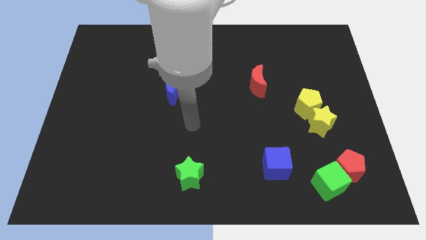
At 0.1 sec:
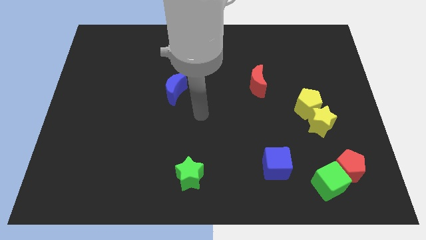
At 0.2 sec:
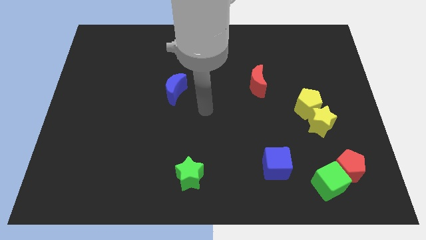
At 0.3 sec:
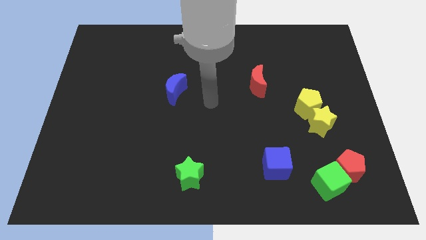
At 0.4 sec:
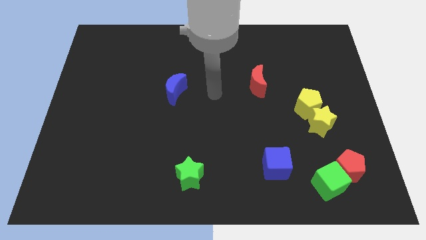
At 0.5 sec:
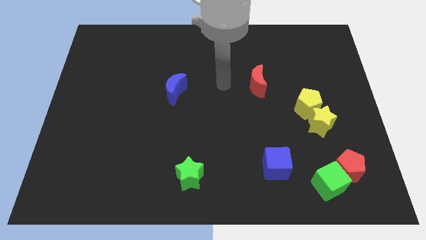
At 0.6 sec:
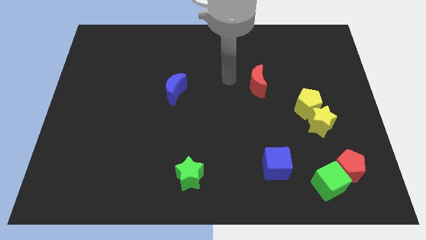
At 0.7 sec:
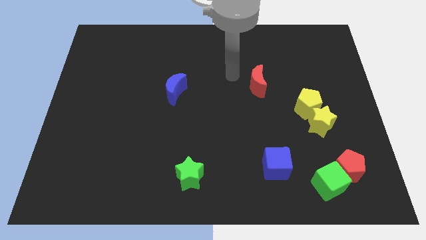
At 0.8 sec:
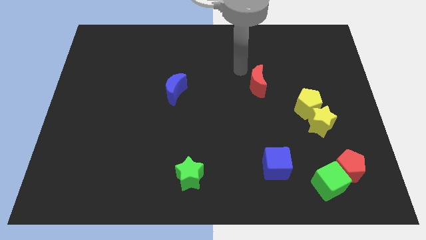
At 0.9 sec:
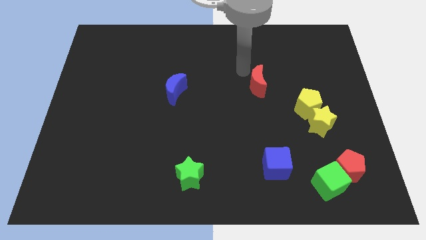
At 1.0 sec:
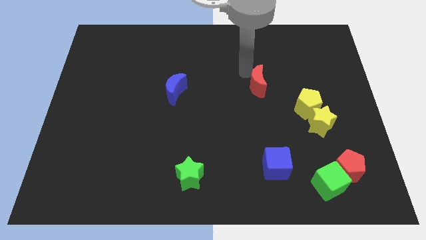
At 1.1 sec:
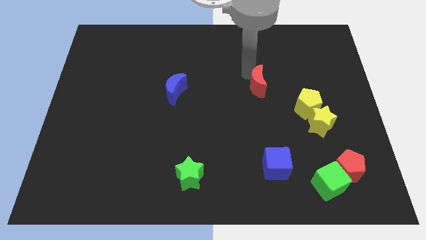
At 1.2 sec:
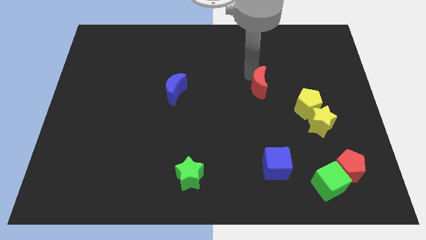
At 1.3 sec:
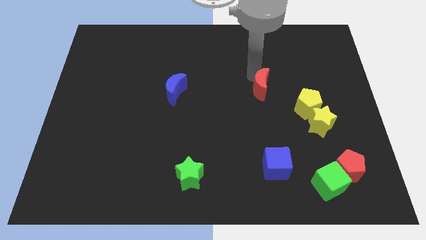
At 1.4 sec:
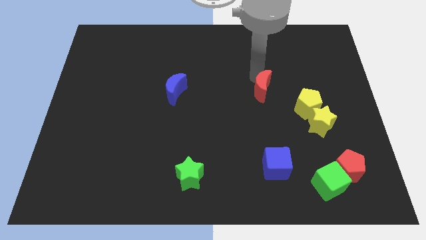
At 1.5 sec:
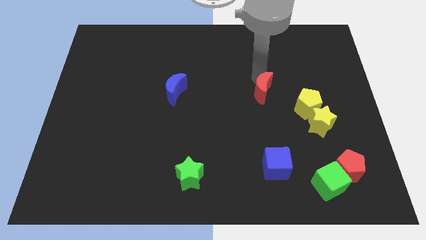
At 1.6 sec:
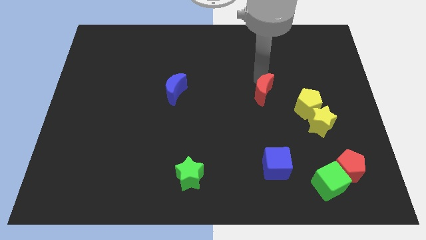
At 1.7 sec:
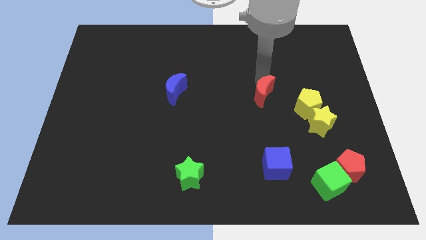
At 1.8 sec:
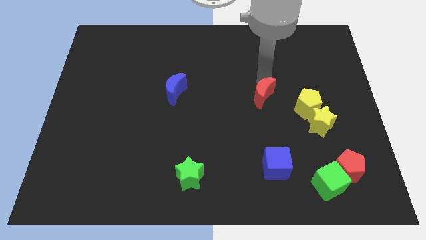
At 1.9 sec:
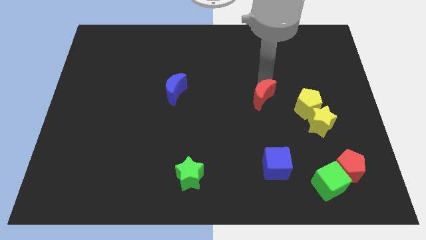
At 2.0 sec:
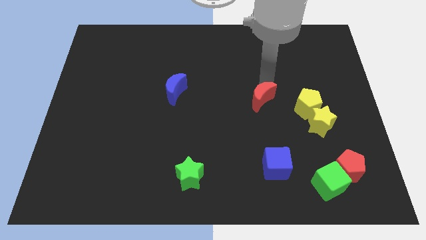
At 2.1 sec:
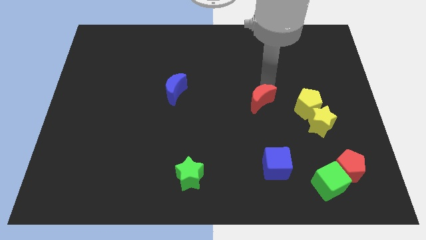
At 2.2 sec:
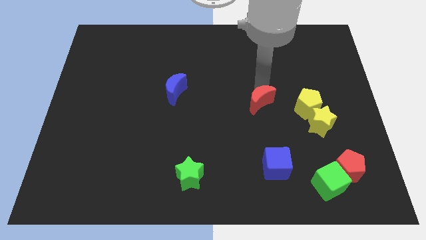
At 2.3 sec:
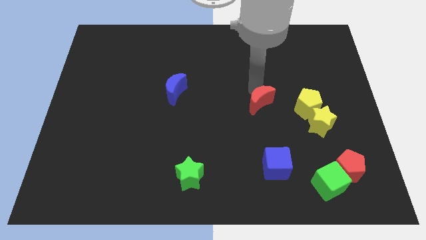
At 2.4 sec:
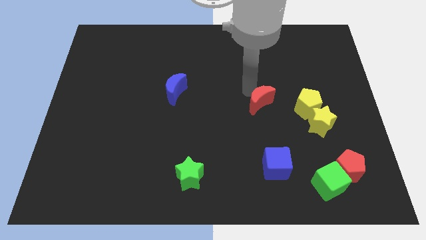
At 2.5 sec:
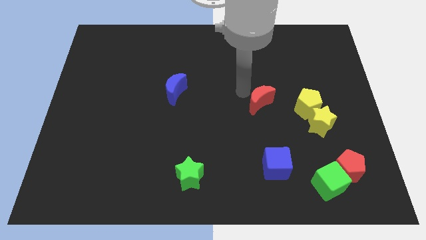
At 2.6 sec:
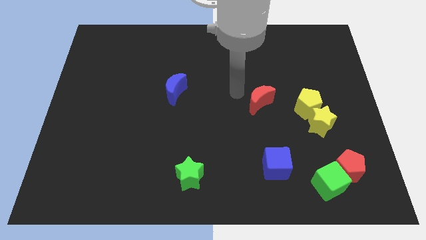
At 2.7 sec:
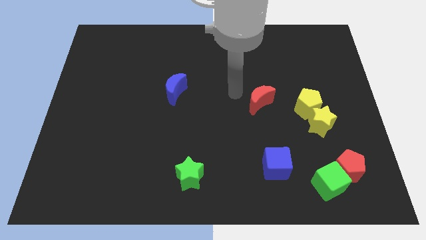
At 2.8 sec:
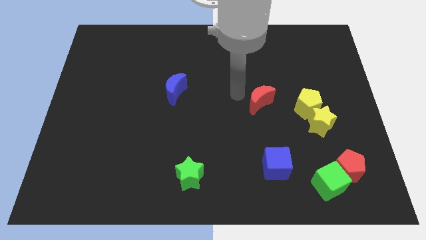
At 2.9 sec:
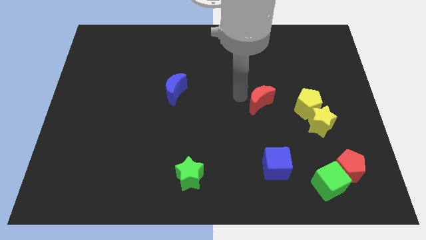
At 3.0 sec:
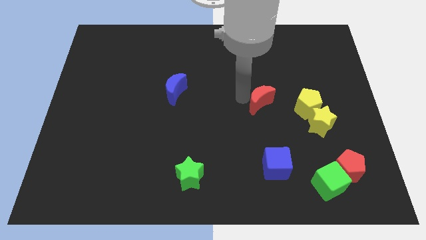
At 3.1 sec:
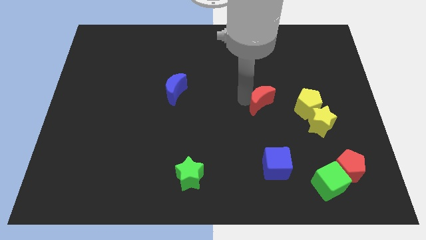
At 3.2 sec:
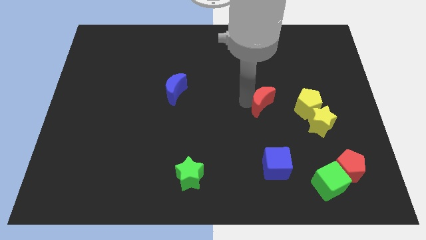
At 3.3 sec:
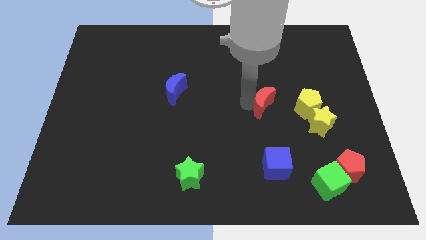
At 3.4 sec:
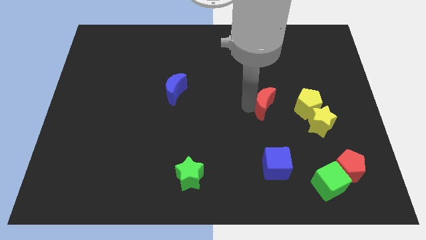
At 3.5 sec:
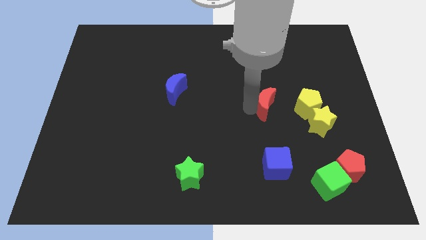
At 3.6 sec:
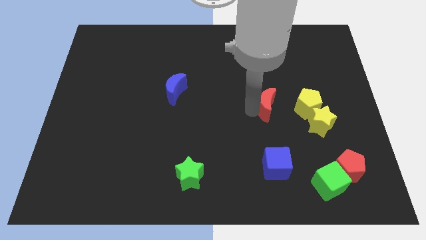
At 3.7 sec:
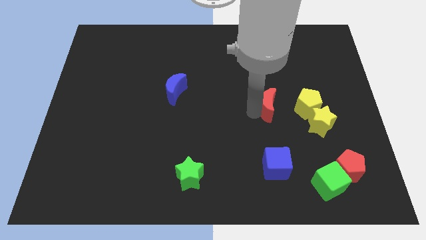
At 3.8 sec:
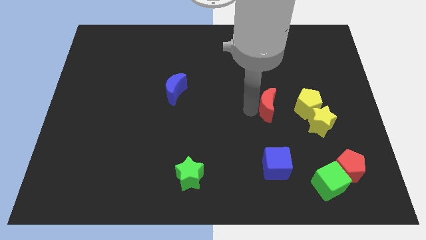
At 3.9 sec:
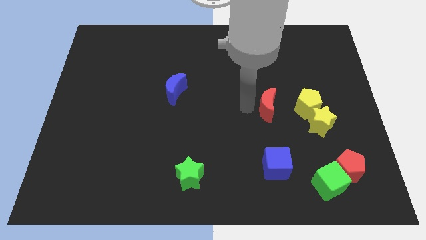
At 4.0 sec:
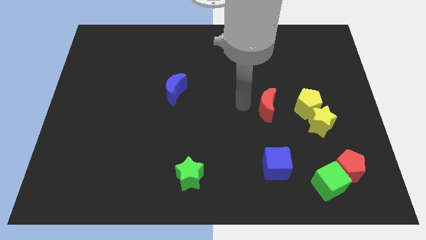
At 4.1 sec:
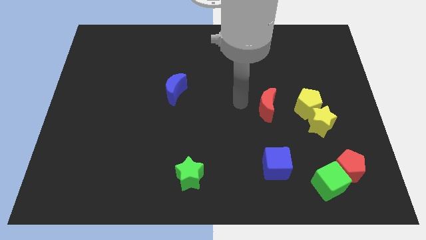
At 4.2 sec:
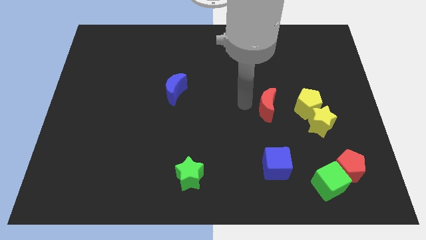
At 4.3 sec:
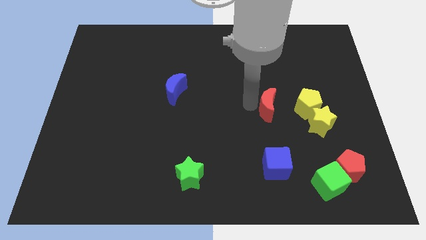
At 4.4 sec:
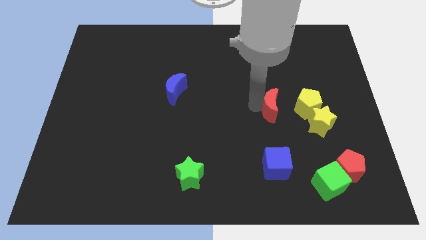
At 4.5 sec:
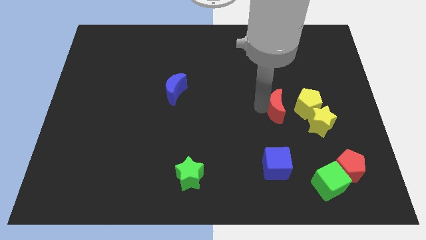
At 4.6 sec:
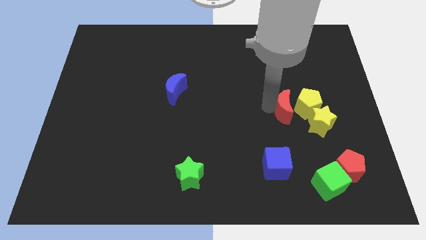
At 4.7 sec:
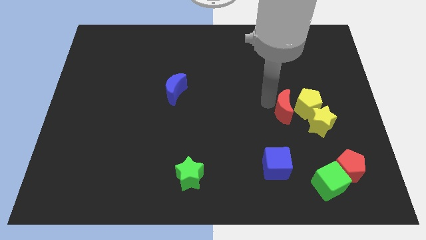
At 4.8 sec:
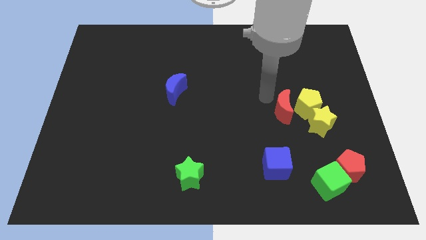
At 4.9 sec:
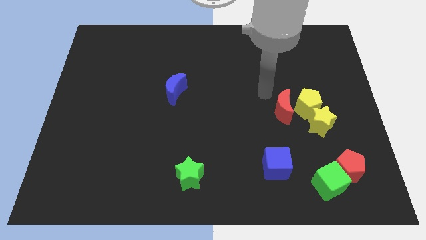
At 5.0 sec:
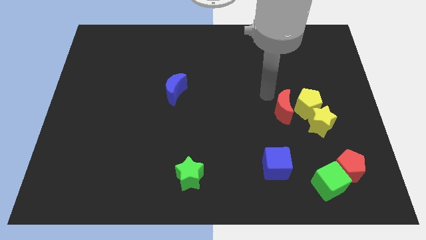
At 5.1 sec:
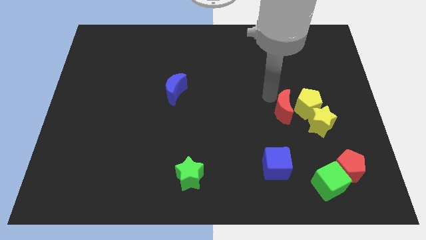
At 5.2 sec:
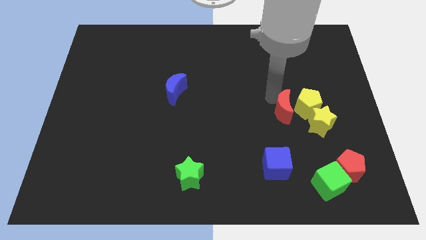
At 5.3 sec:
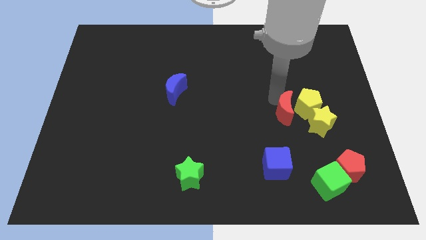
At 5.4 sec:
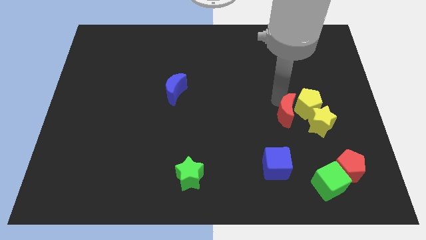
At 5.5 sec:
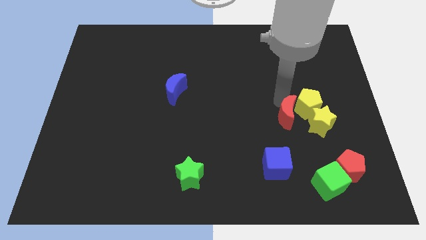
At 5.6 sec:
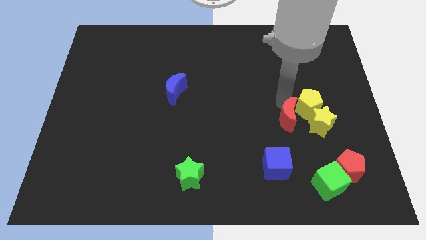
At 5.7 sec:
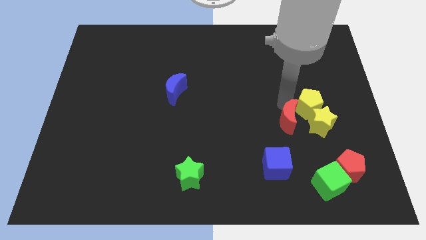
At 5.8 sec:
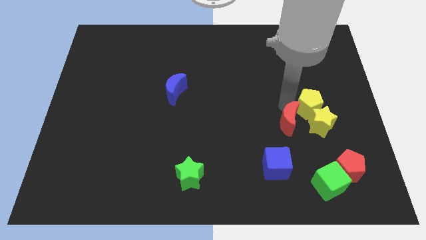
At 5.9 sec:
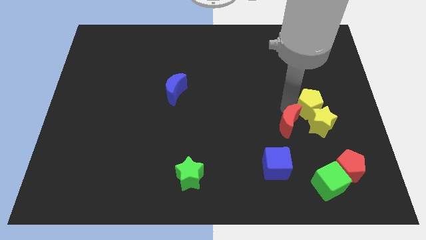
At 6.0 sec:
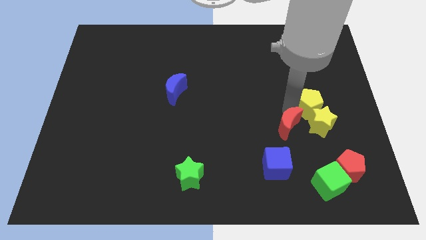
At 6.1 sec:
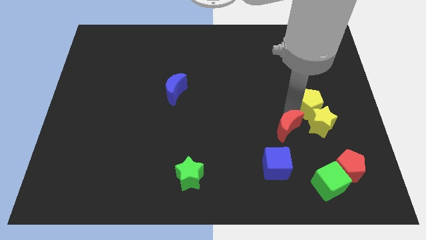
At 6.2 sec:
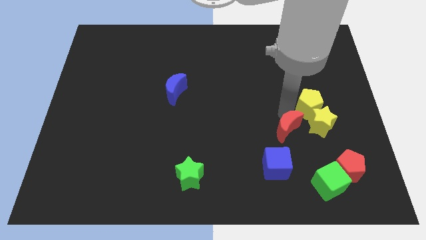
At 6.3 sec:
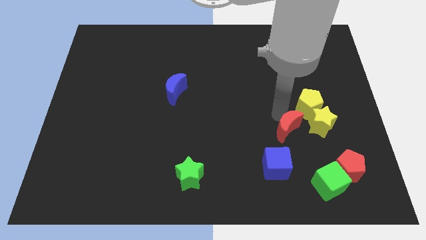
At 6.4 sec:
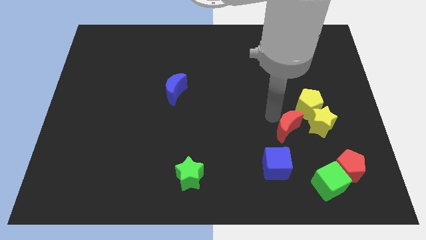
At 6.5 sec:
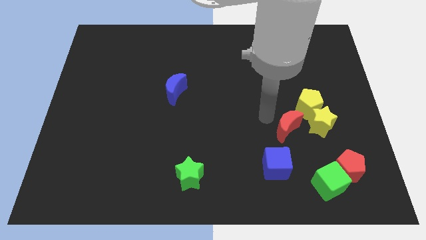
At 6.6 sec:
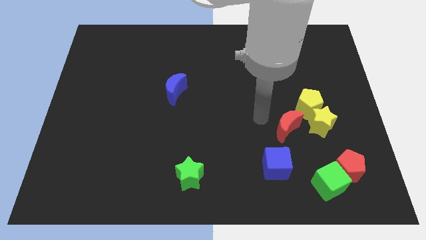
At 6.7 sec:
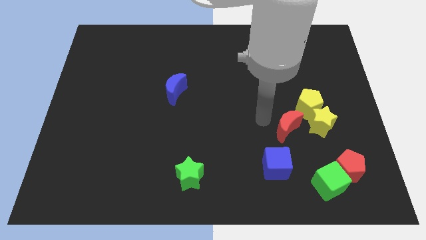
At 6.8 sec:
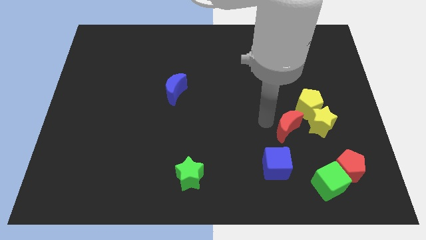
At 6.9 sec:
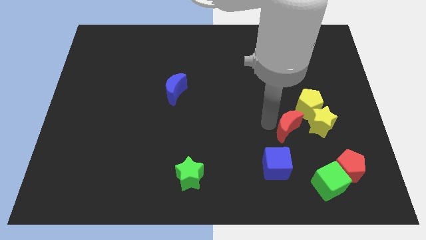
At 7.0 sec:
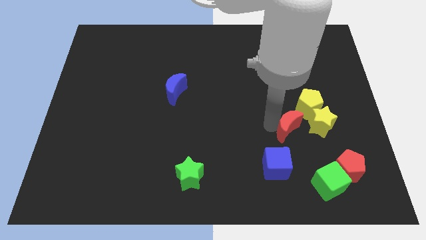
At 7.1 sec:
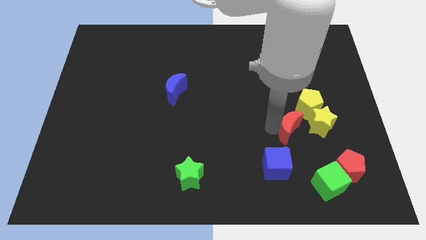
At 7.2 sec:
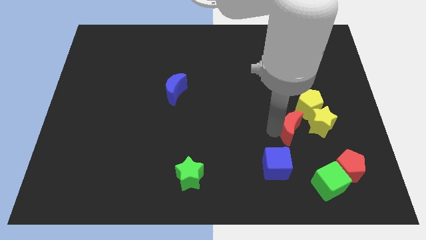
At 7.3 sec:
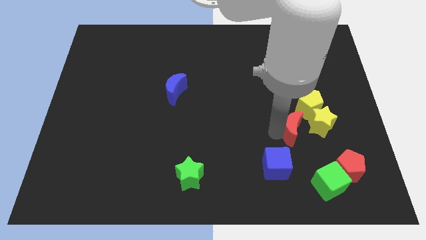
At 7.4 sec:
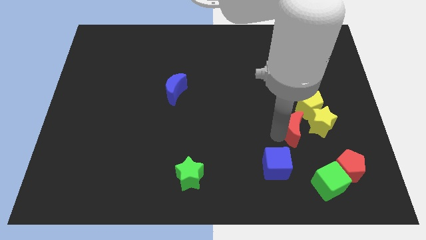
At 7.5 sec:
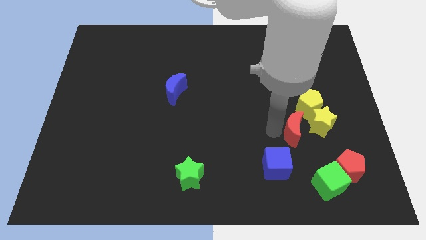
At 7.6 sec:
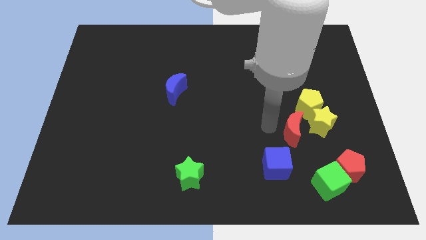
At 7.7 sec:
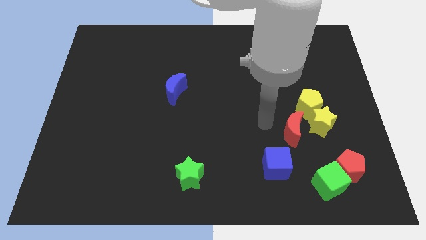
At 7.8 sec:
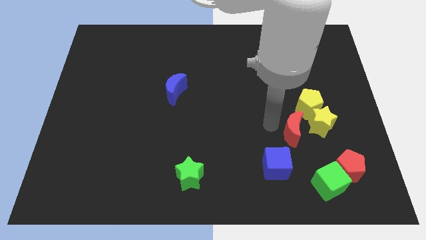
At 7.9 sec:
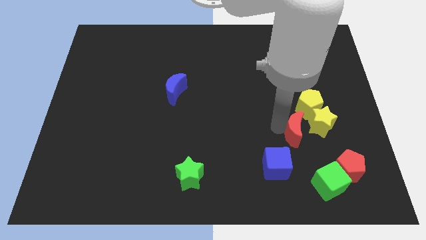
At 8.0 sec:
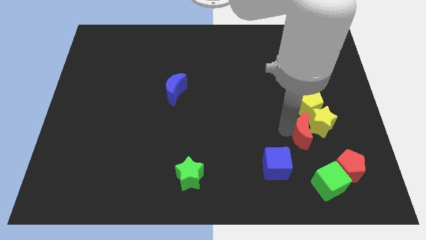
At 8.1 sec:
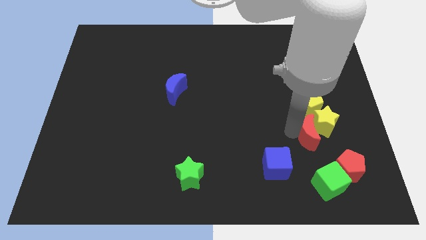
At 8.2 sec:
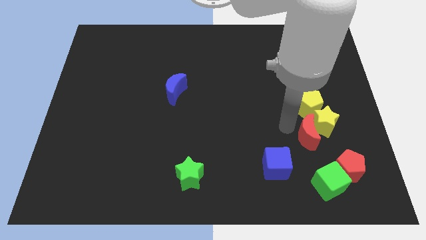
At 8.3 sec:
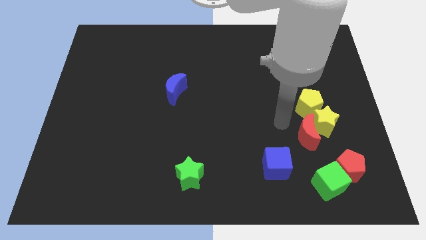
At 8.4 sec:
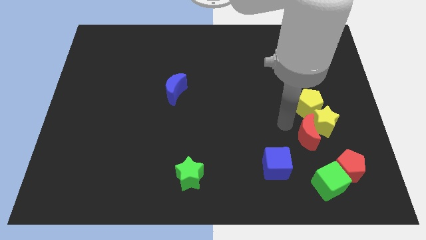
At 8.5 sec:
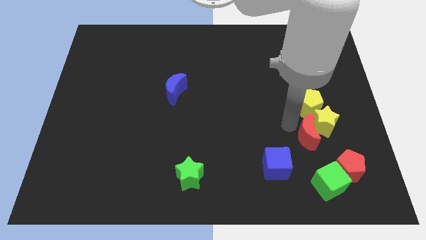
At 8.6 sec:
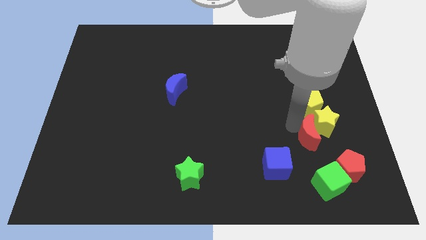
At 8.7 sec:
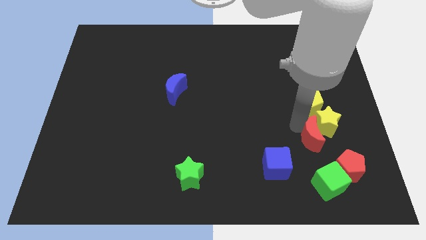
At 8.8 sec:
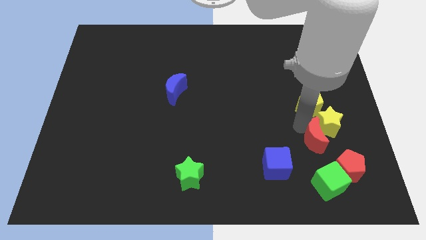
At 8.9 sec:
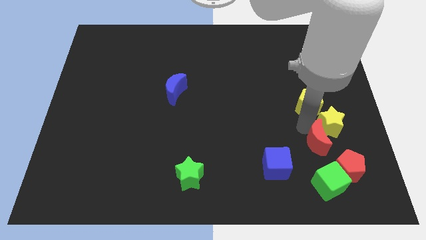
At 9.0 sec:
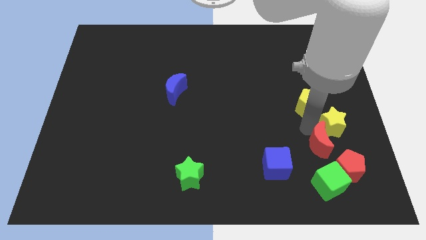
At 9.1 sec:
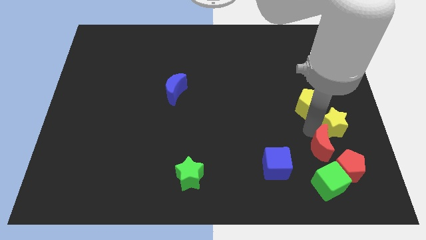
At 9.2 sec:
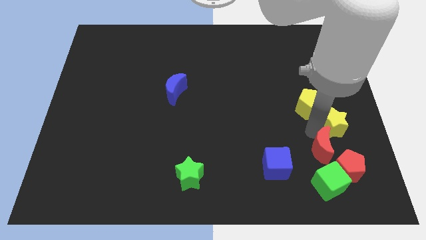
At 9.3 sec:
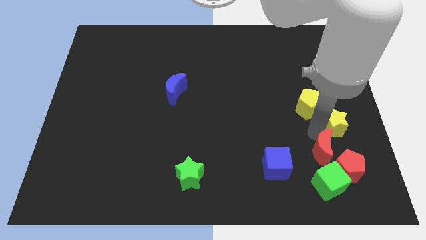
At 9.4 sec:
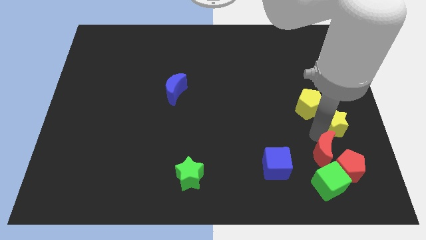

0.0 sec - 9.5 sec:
slide the red moon next to the red pentagon
